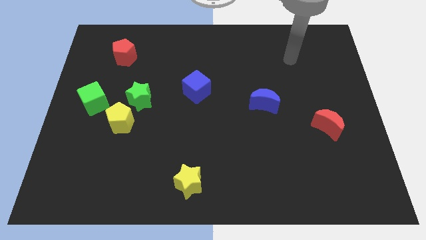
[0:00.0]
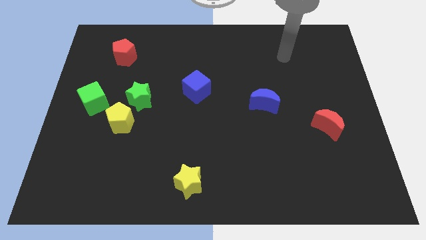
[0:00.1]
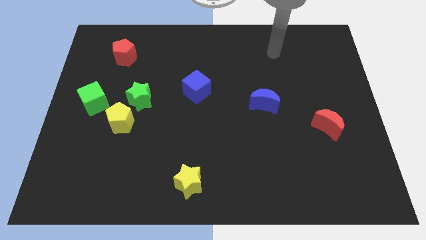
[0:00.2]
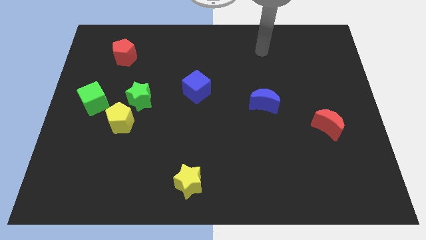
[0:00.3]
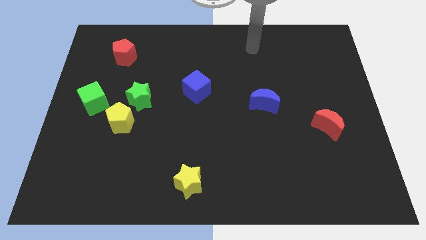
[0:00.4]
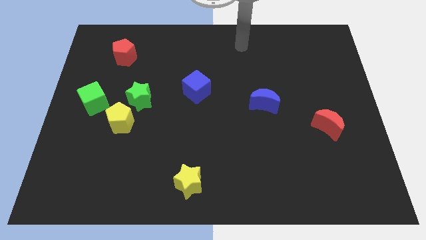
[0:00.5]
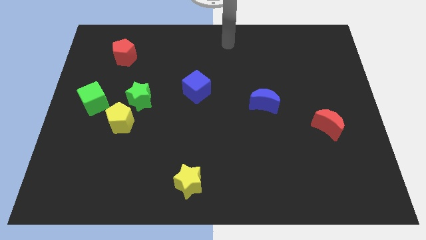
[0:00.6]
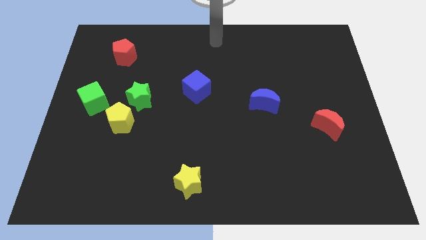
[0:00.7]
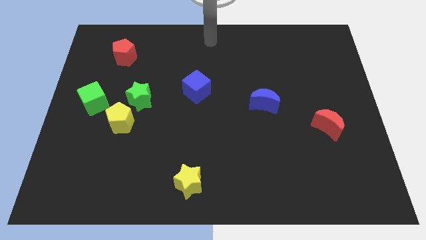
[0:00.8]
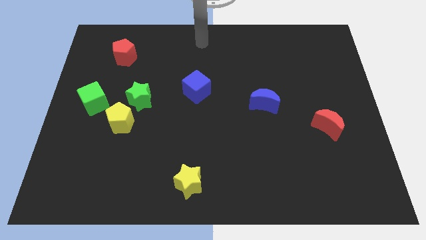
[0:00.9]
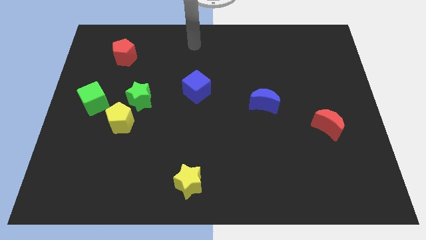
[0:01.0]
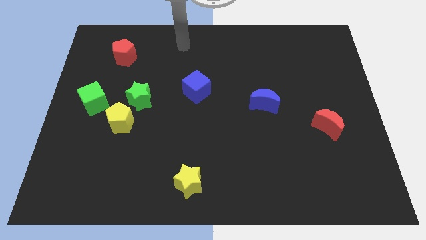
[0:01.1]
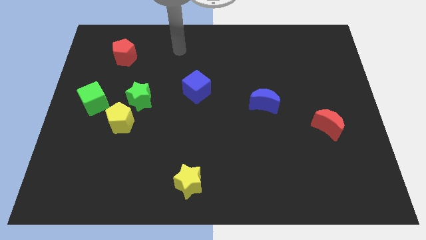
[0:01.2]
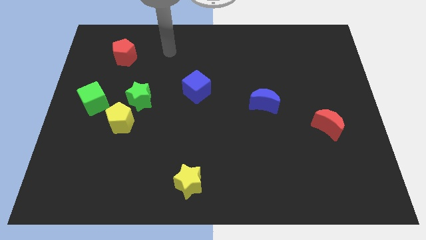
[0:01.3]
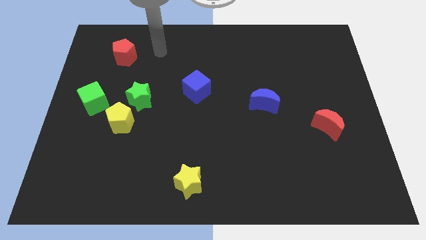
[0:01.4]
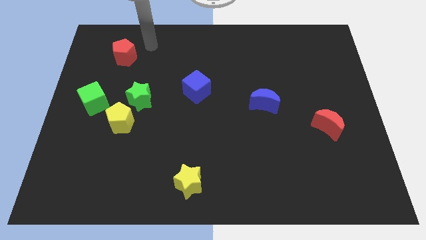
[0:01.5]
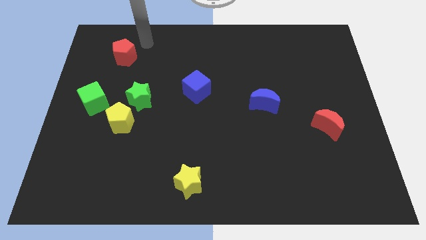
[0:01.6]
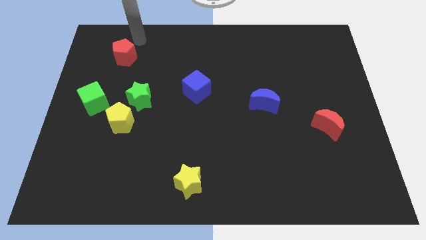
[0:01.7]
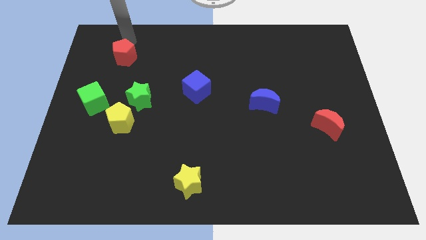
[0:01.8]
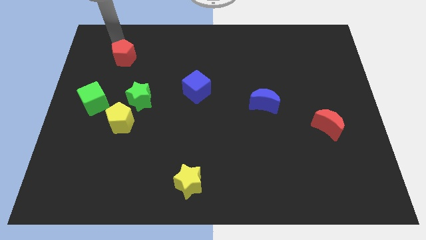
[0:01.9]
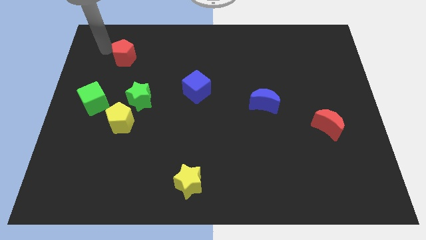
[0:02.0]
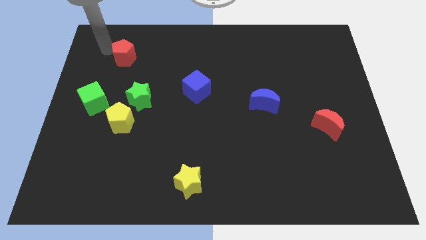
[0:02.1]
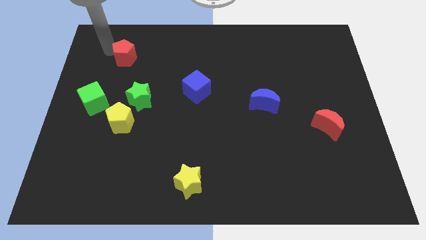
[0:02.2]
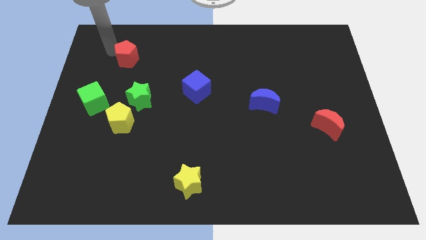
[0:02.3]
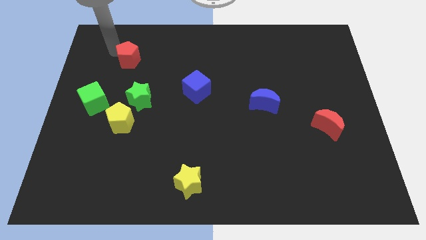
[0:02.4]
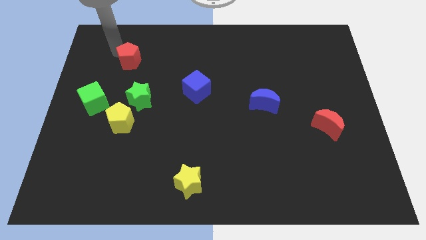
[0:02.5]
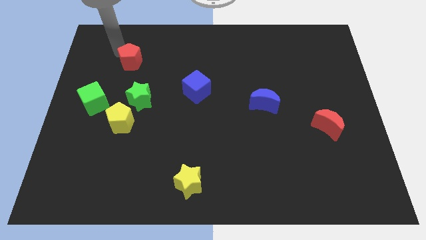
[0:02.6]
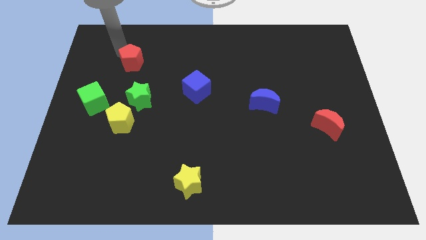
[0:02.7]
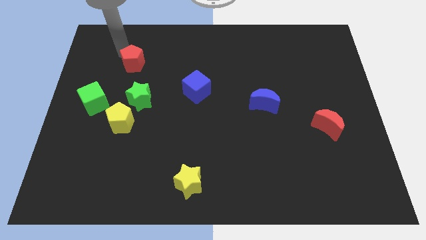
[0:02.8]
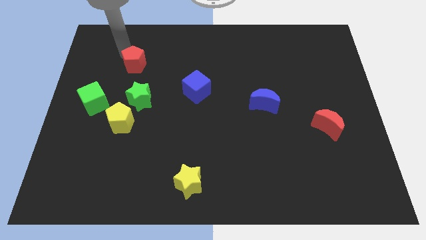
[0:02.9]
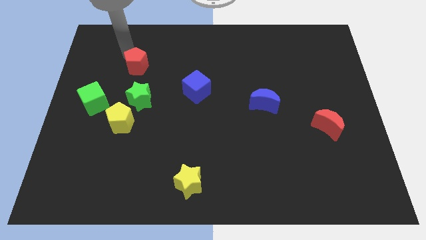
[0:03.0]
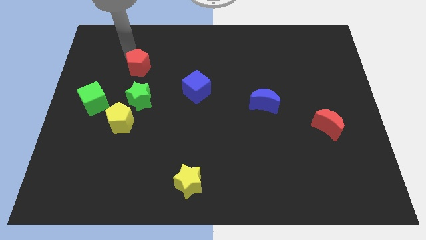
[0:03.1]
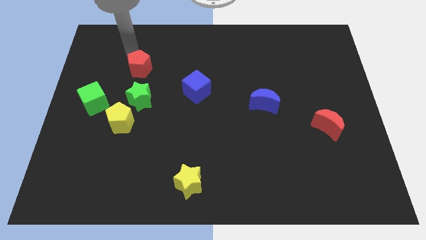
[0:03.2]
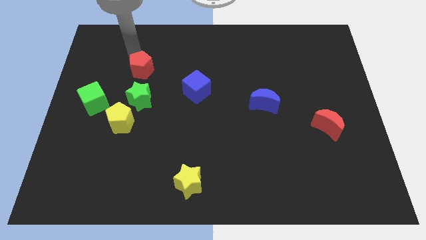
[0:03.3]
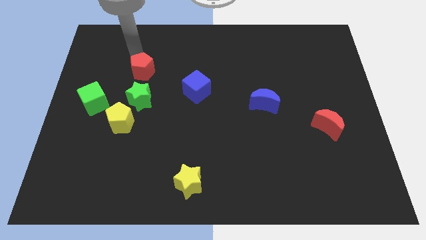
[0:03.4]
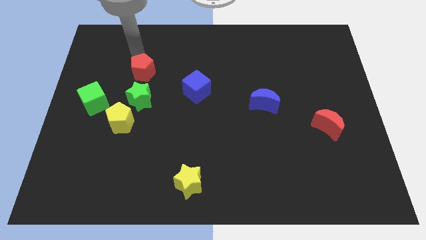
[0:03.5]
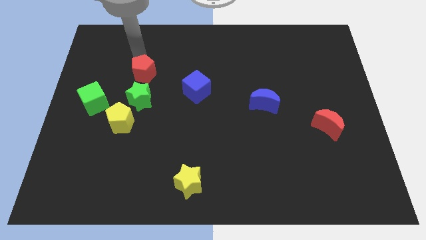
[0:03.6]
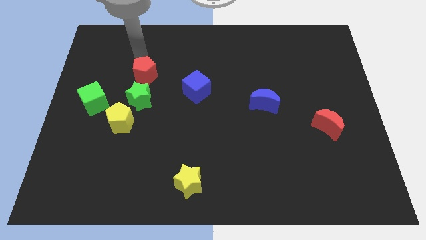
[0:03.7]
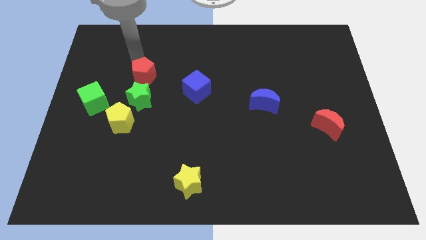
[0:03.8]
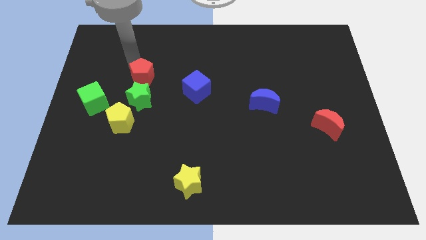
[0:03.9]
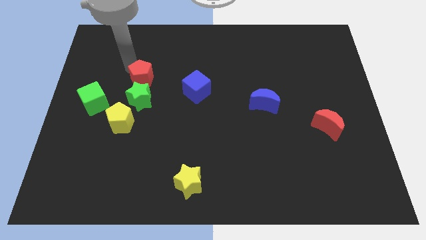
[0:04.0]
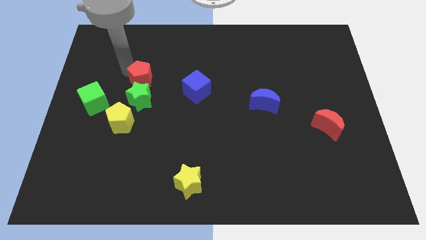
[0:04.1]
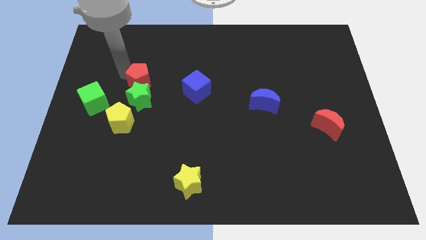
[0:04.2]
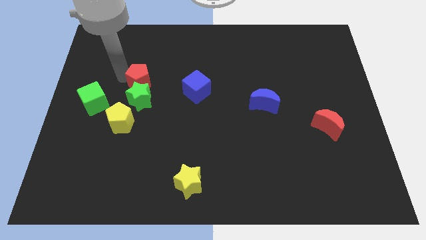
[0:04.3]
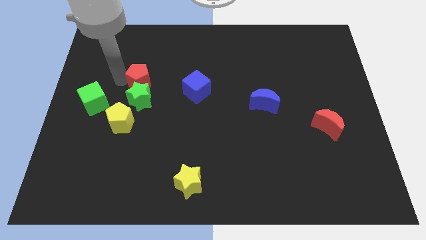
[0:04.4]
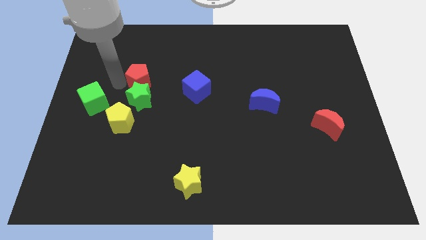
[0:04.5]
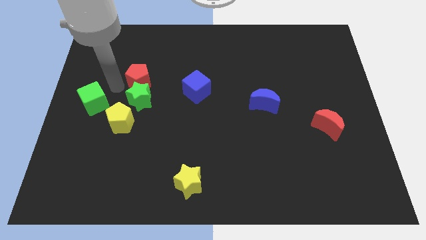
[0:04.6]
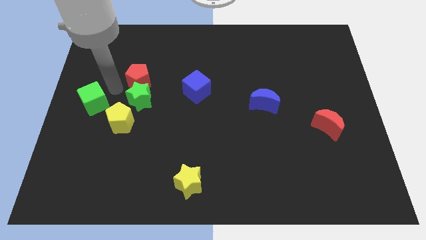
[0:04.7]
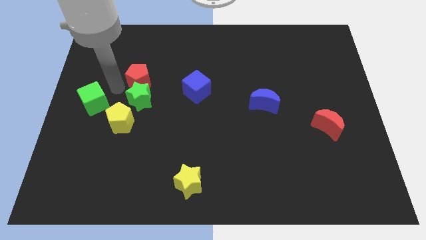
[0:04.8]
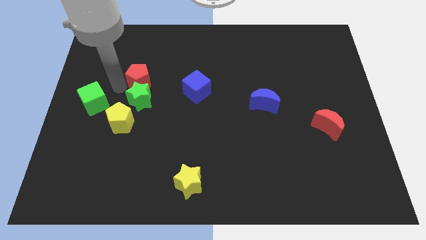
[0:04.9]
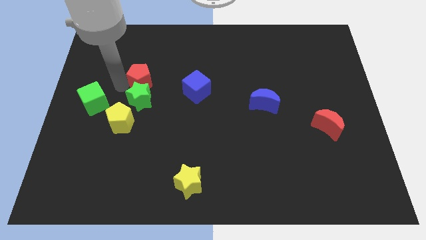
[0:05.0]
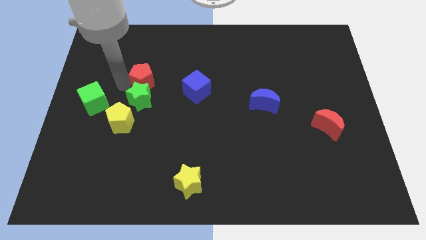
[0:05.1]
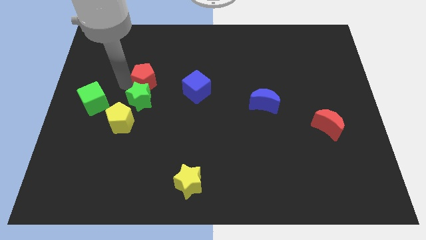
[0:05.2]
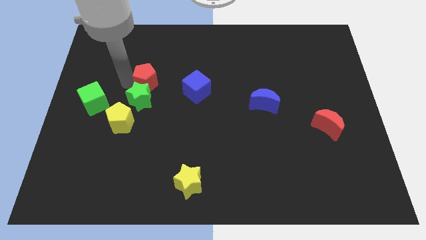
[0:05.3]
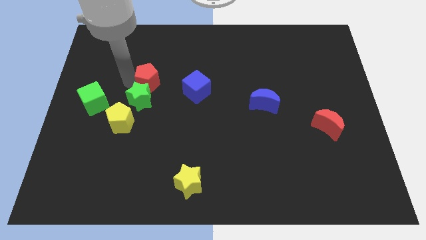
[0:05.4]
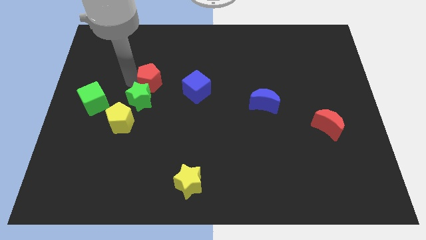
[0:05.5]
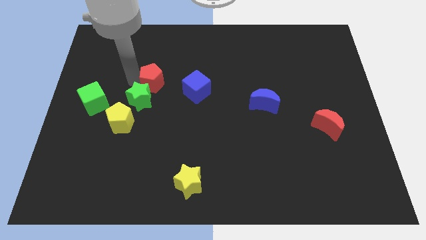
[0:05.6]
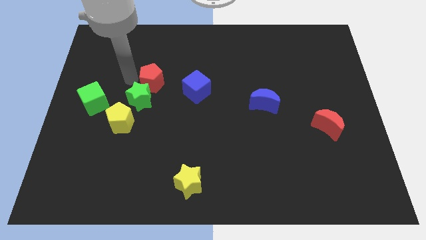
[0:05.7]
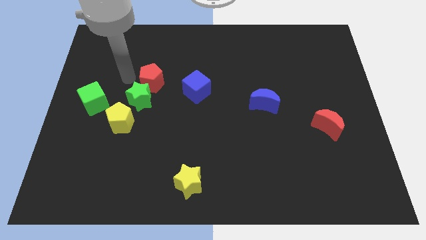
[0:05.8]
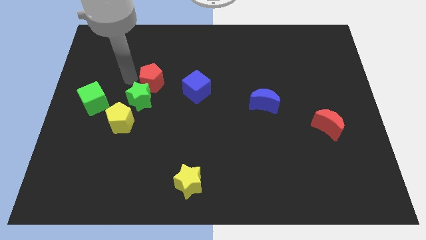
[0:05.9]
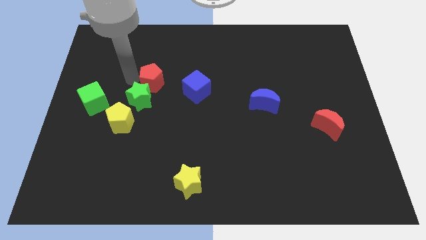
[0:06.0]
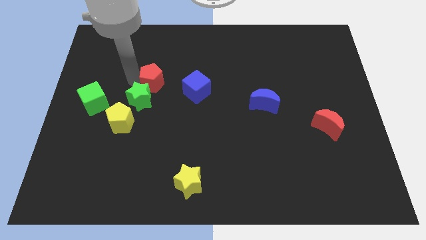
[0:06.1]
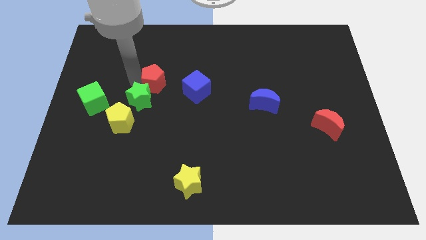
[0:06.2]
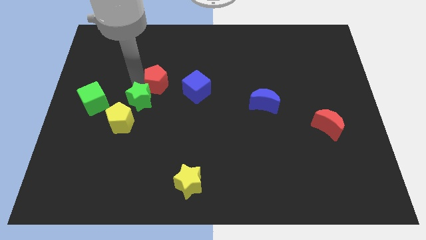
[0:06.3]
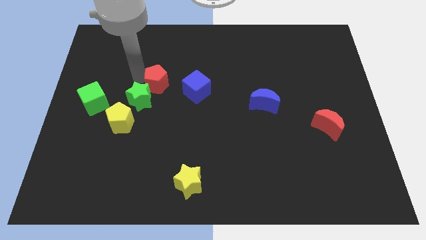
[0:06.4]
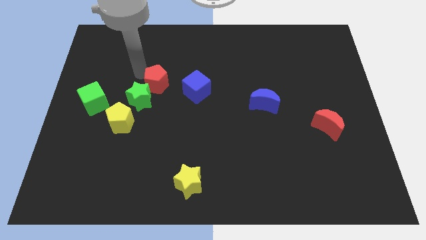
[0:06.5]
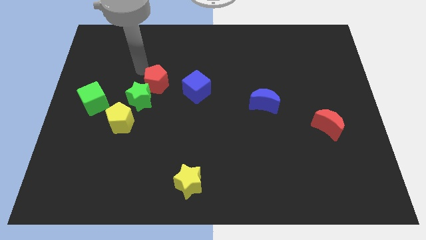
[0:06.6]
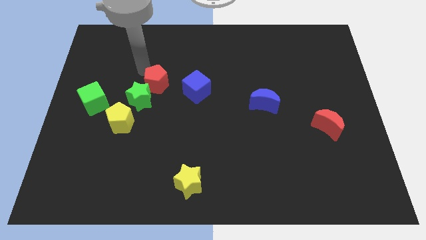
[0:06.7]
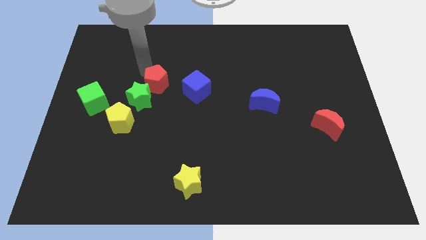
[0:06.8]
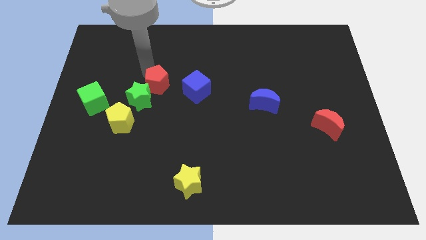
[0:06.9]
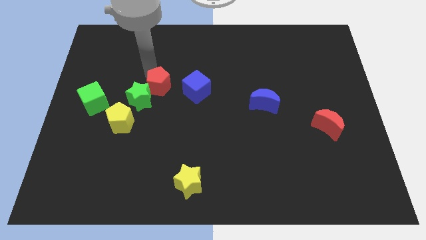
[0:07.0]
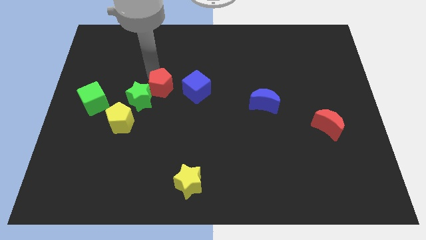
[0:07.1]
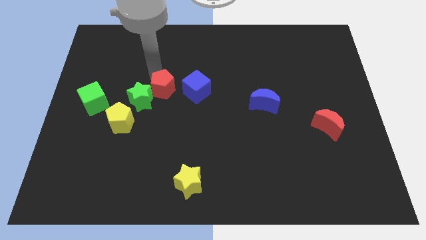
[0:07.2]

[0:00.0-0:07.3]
move the red pentagon to the middle
